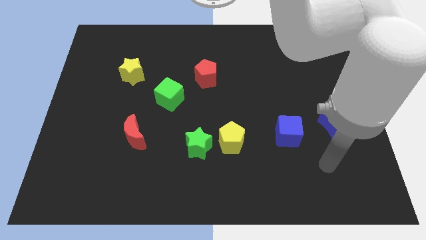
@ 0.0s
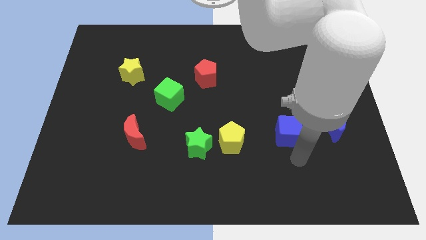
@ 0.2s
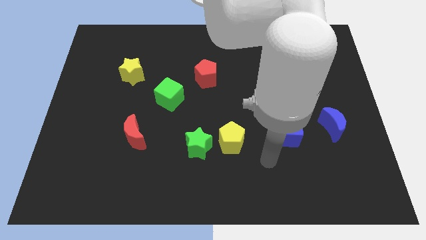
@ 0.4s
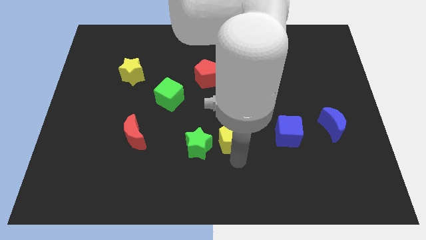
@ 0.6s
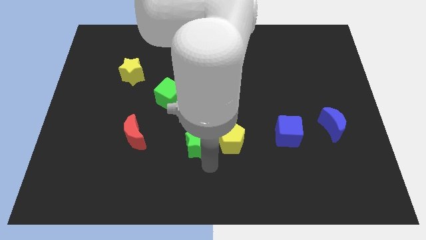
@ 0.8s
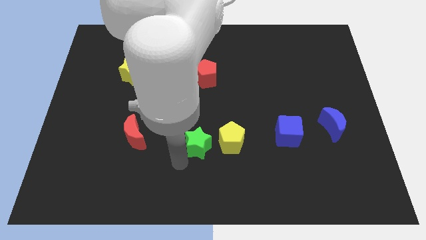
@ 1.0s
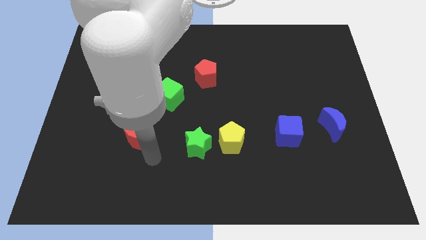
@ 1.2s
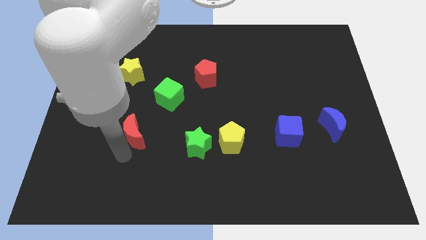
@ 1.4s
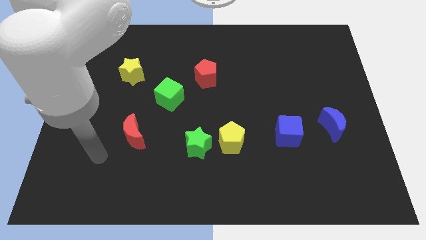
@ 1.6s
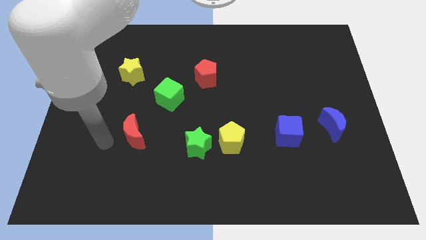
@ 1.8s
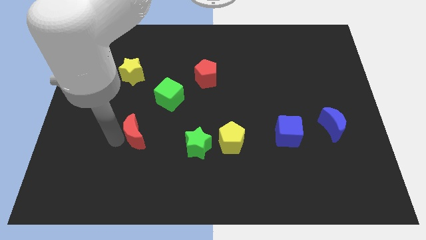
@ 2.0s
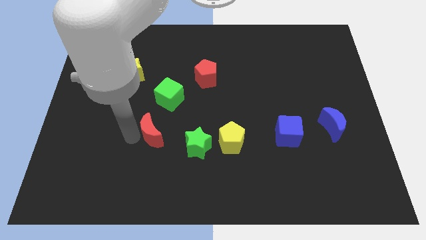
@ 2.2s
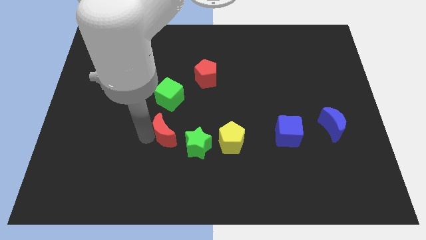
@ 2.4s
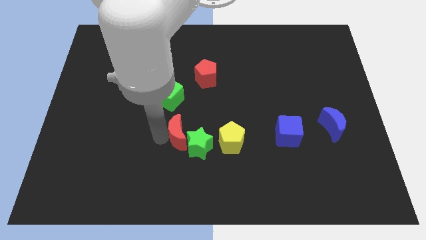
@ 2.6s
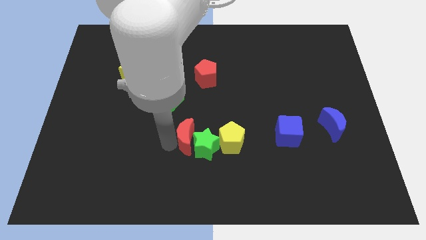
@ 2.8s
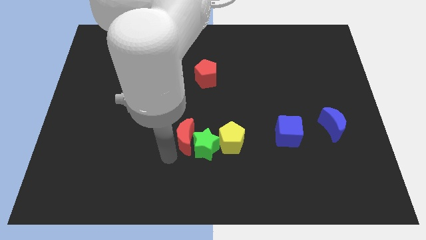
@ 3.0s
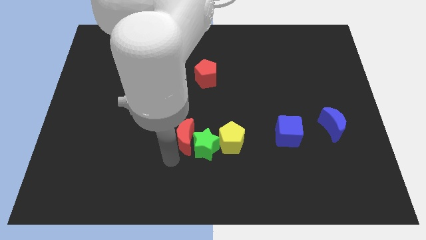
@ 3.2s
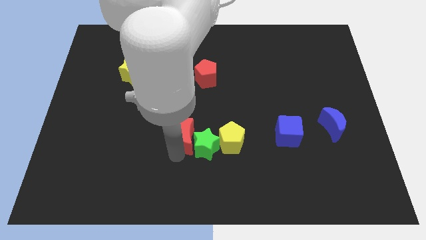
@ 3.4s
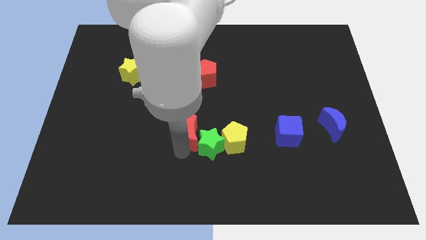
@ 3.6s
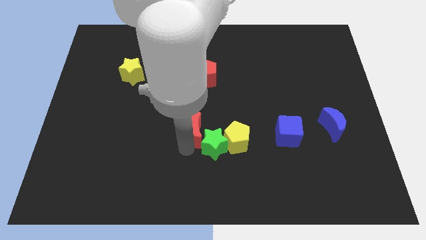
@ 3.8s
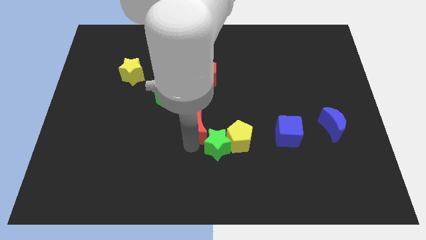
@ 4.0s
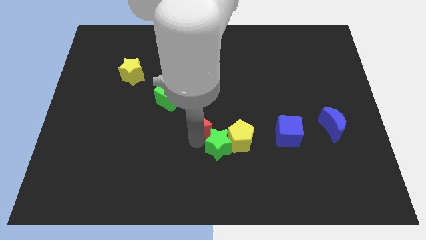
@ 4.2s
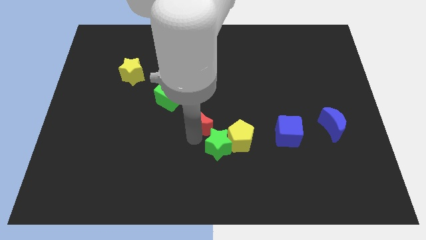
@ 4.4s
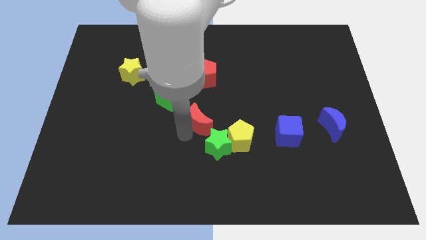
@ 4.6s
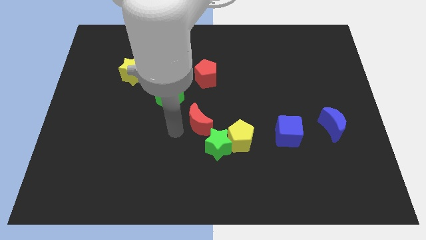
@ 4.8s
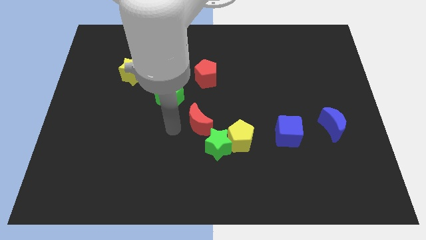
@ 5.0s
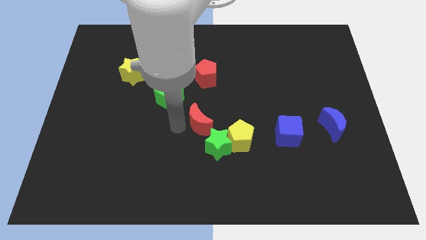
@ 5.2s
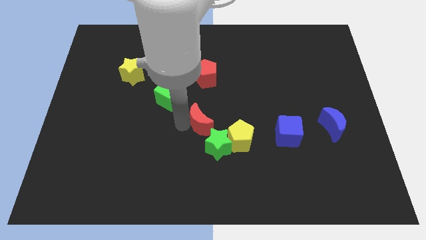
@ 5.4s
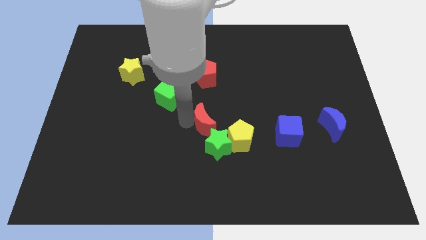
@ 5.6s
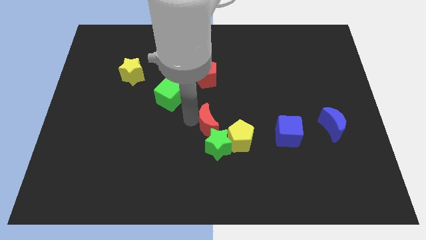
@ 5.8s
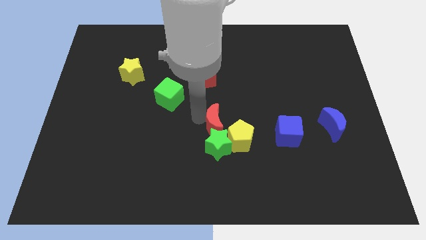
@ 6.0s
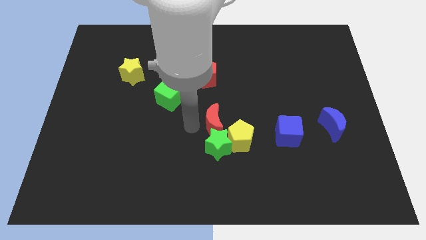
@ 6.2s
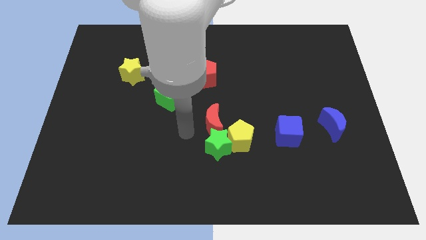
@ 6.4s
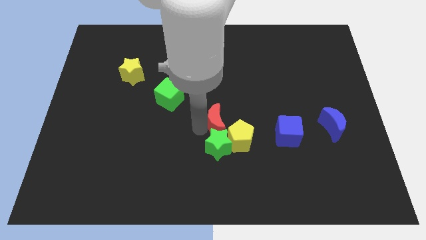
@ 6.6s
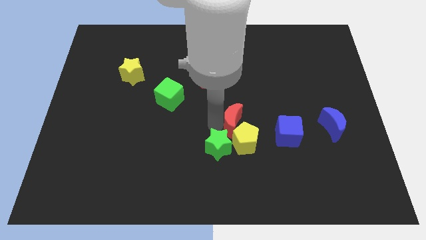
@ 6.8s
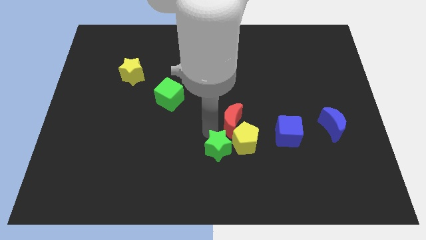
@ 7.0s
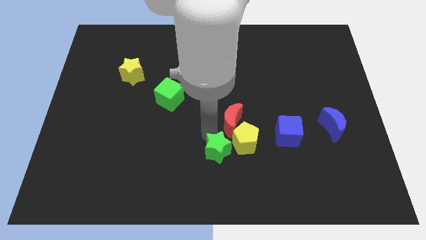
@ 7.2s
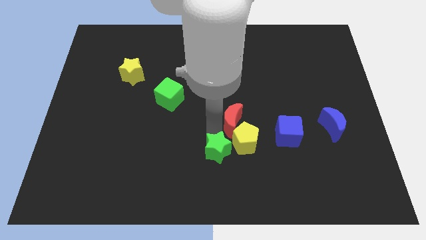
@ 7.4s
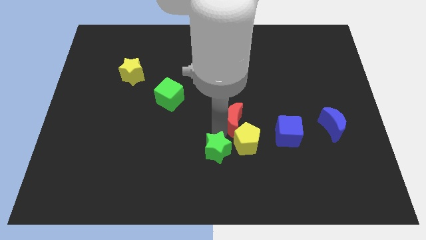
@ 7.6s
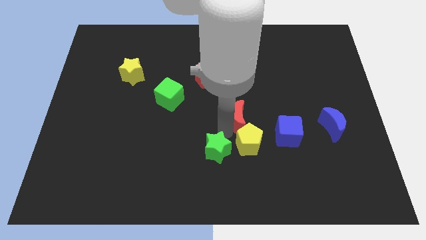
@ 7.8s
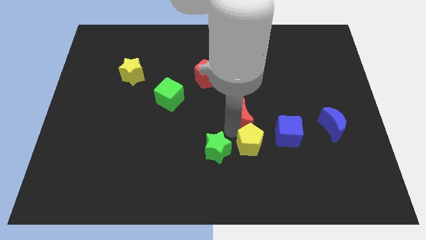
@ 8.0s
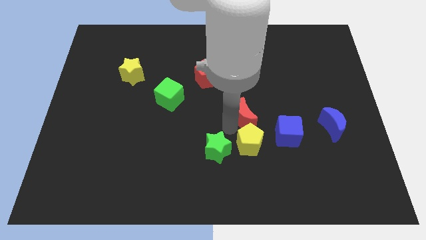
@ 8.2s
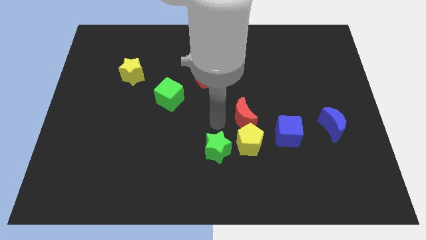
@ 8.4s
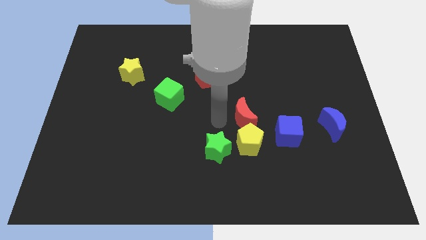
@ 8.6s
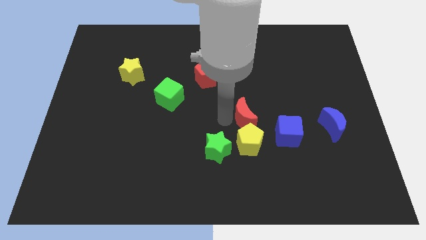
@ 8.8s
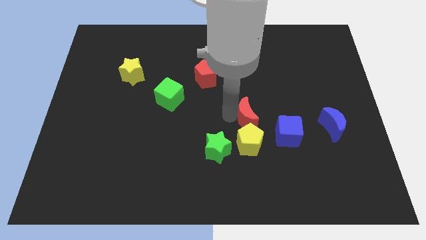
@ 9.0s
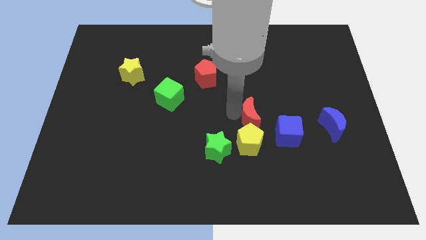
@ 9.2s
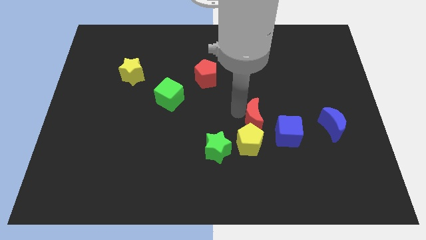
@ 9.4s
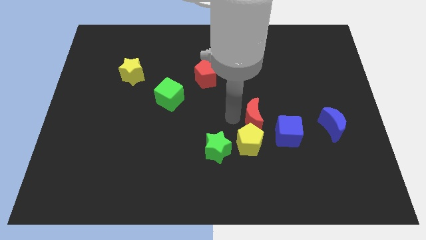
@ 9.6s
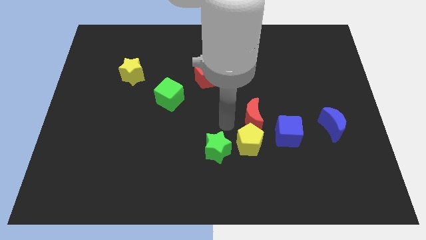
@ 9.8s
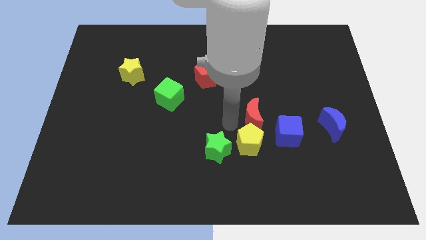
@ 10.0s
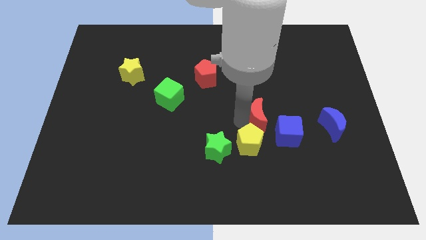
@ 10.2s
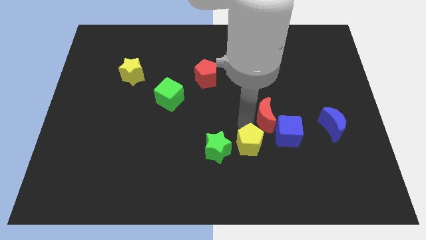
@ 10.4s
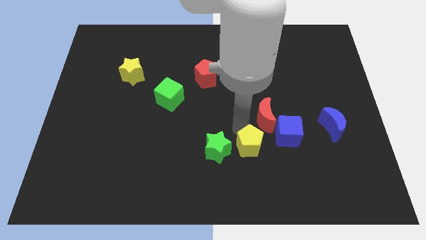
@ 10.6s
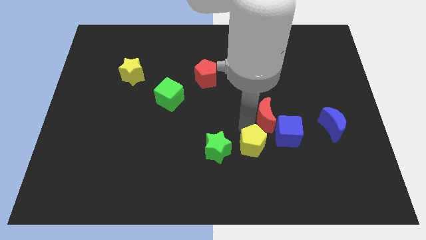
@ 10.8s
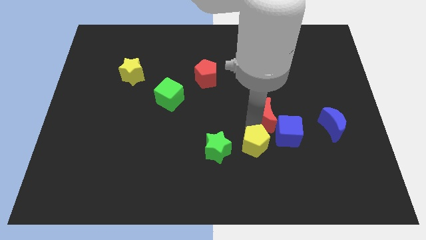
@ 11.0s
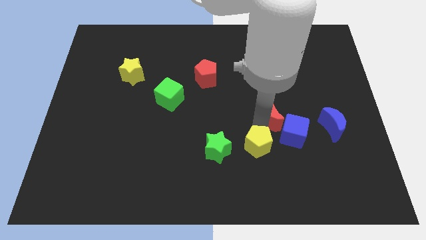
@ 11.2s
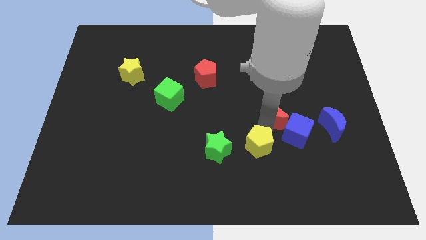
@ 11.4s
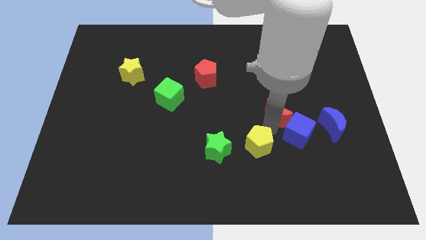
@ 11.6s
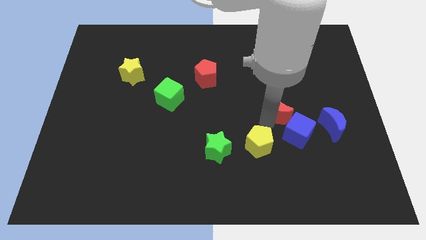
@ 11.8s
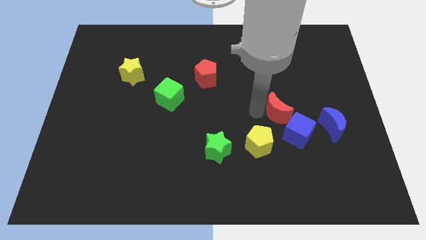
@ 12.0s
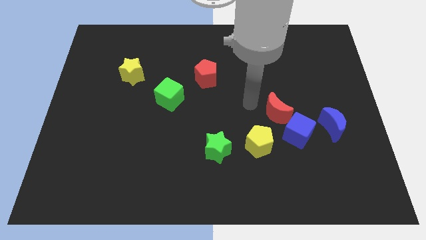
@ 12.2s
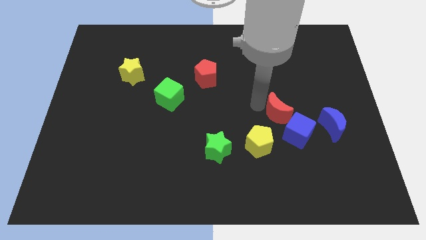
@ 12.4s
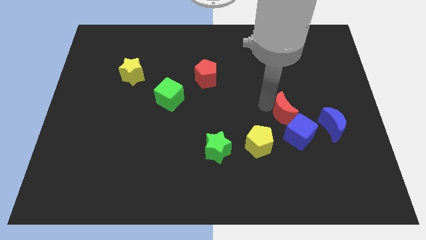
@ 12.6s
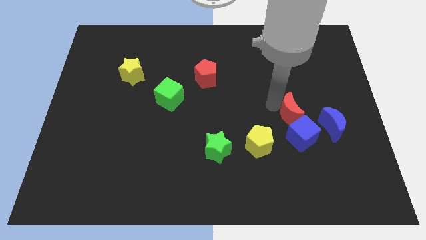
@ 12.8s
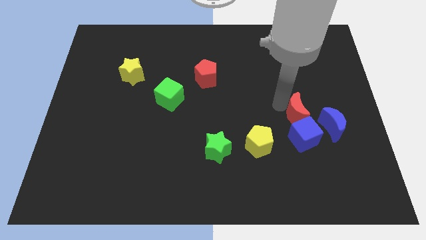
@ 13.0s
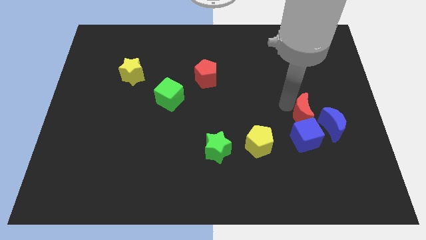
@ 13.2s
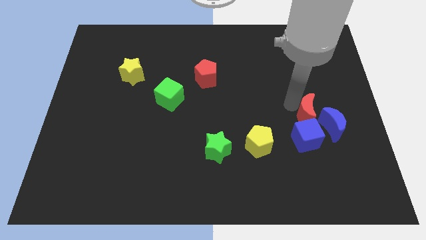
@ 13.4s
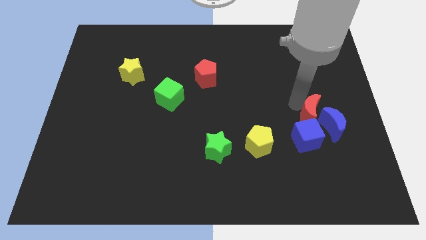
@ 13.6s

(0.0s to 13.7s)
put the red moon towards the blue moon

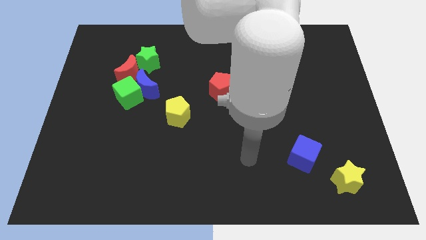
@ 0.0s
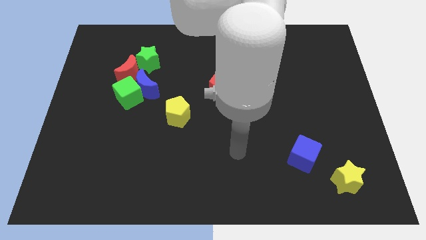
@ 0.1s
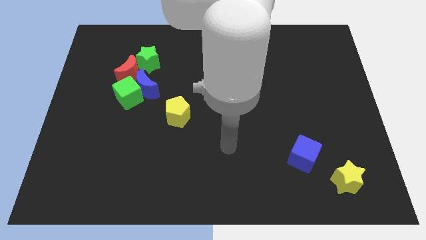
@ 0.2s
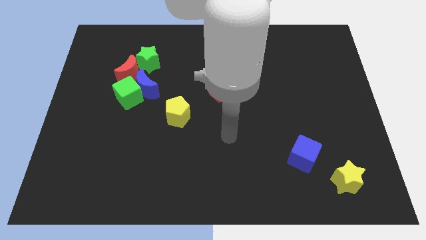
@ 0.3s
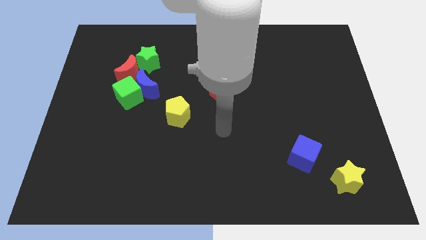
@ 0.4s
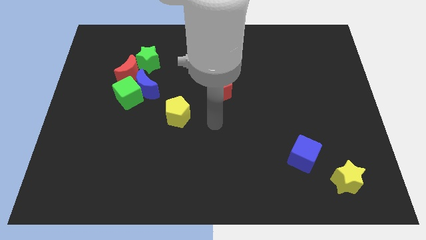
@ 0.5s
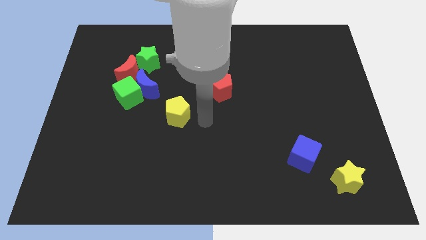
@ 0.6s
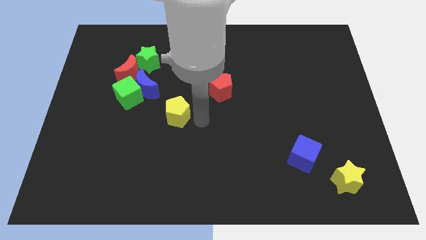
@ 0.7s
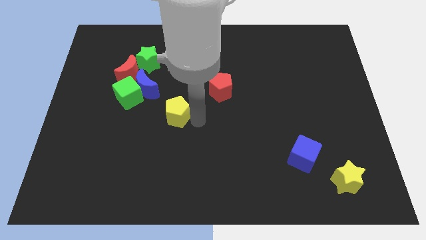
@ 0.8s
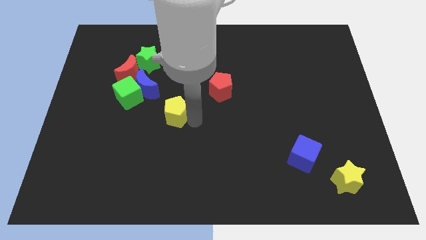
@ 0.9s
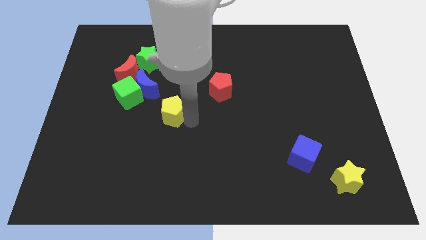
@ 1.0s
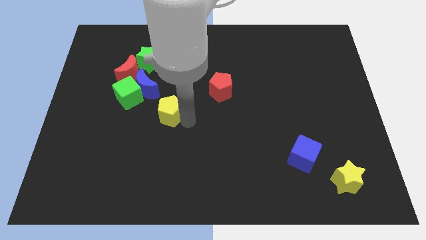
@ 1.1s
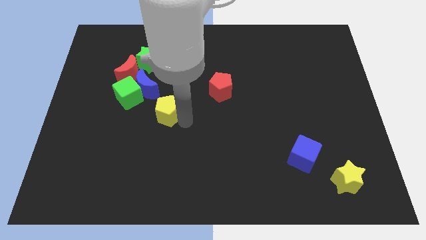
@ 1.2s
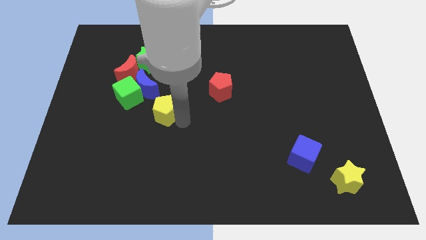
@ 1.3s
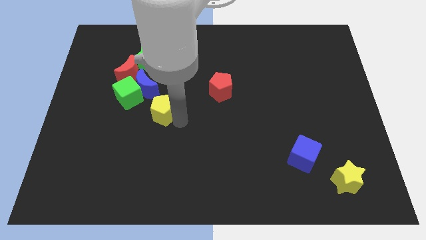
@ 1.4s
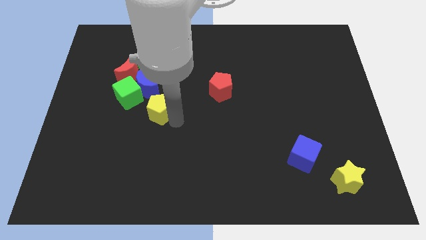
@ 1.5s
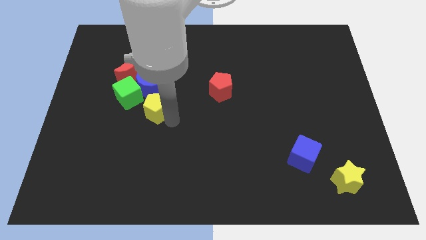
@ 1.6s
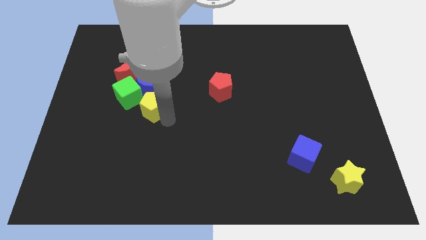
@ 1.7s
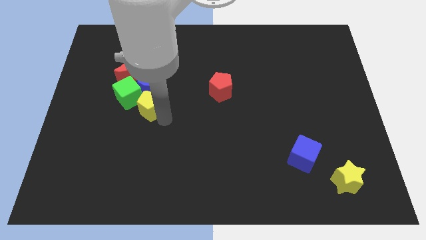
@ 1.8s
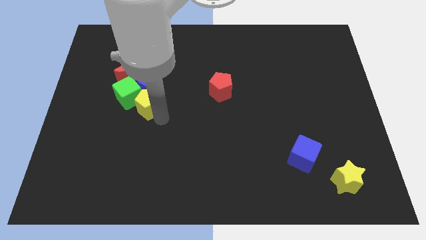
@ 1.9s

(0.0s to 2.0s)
put the yellow pentagon to the green cube
